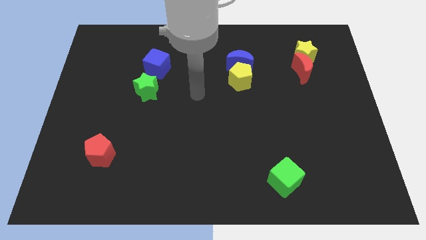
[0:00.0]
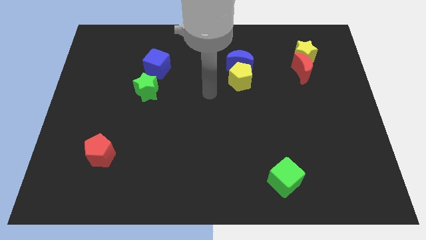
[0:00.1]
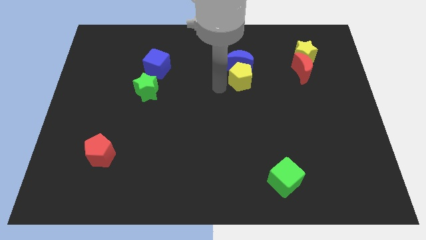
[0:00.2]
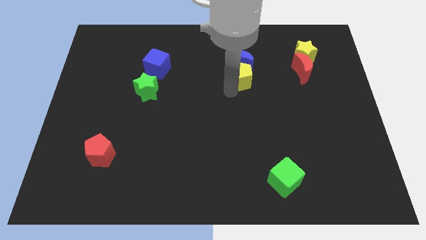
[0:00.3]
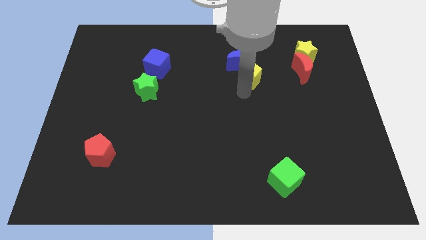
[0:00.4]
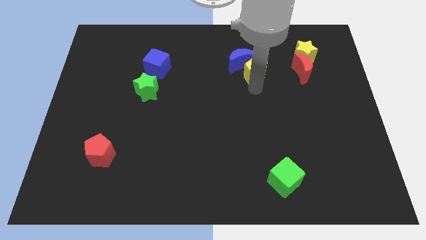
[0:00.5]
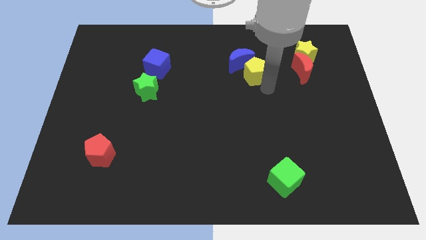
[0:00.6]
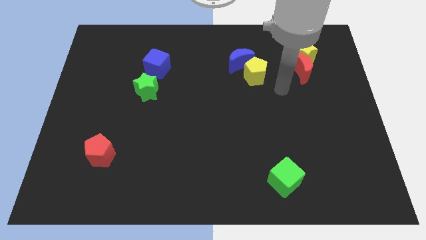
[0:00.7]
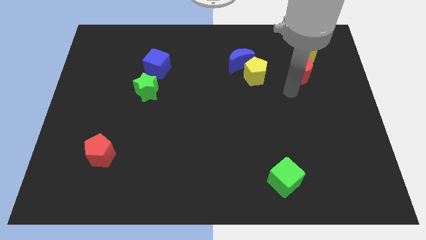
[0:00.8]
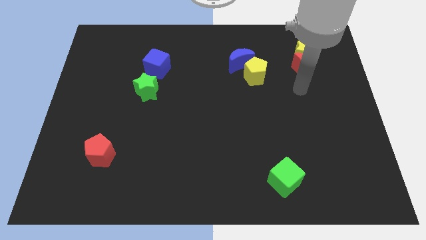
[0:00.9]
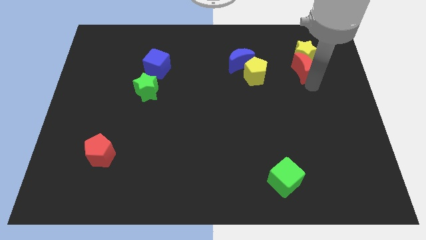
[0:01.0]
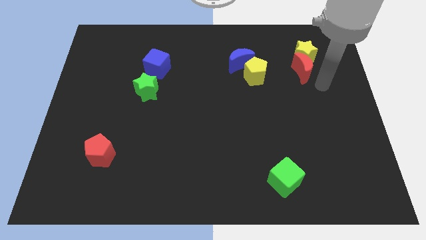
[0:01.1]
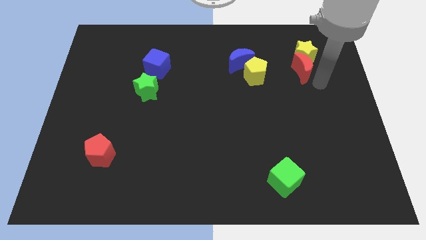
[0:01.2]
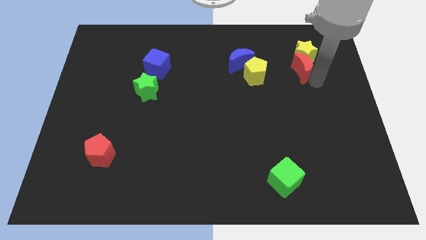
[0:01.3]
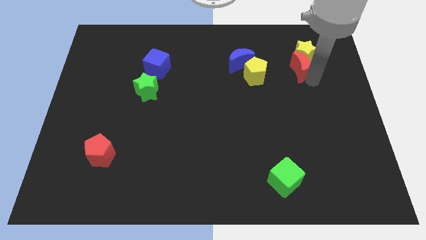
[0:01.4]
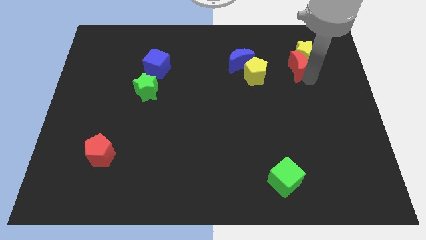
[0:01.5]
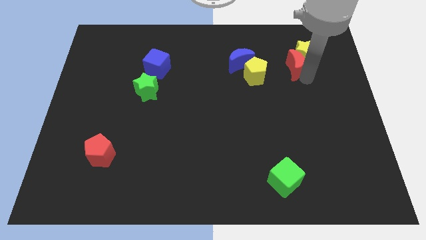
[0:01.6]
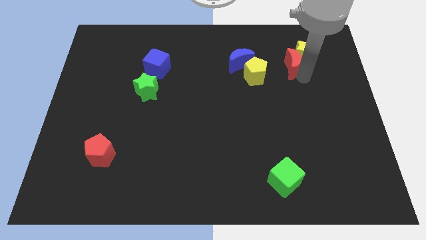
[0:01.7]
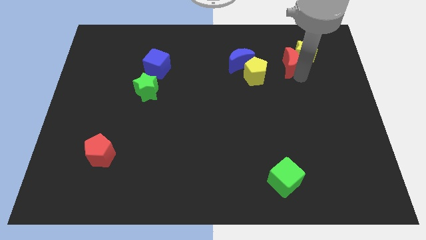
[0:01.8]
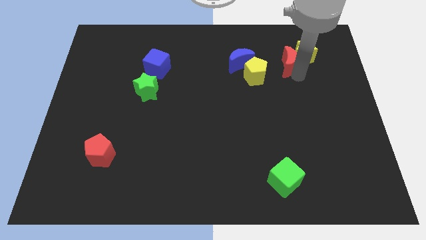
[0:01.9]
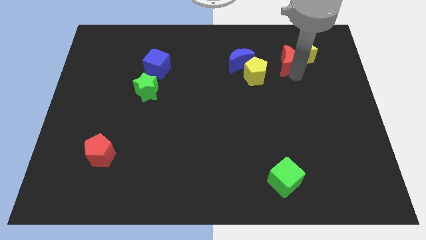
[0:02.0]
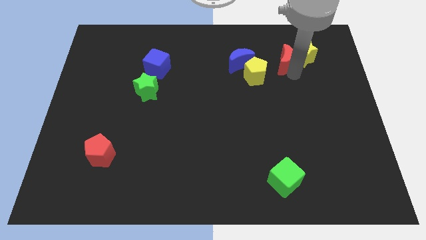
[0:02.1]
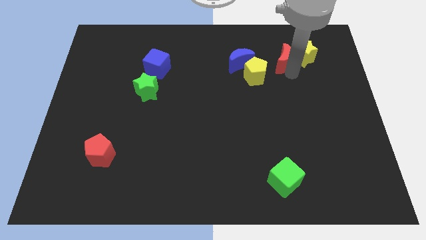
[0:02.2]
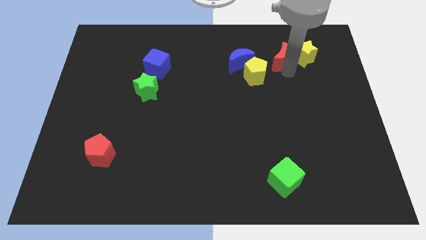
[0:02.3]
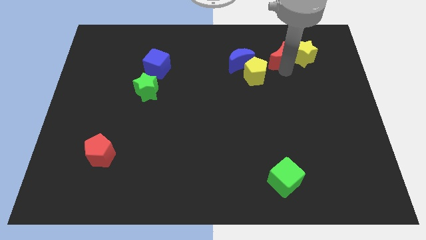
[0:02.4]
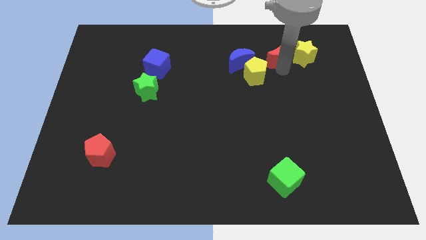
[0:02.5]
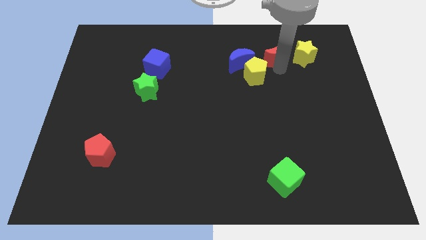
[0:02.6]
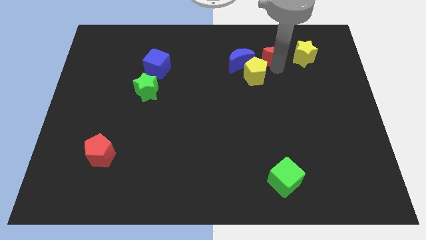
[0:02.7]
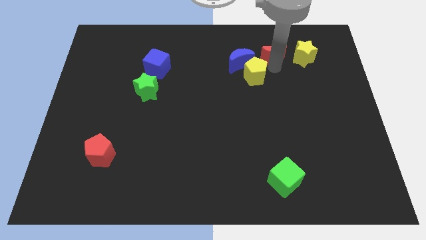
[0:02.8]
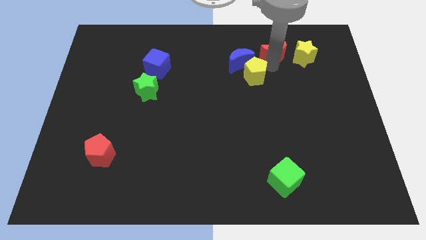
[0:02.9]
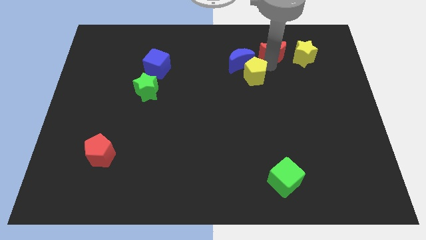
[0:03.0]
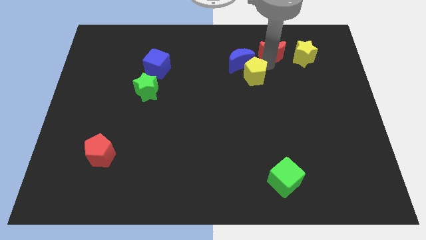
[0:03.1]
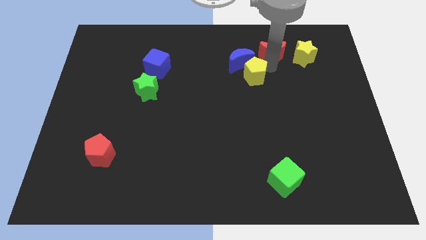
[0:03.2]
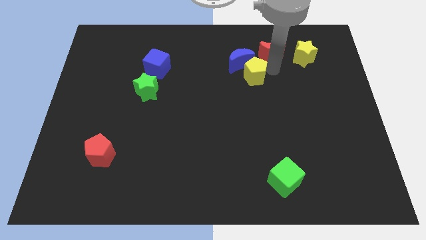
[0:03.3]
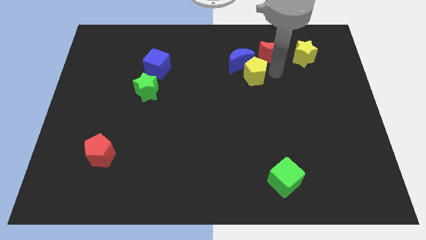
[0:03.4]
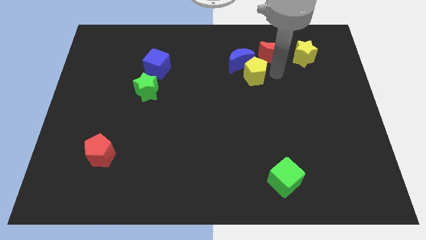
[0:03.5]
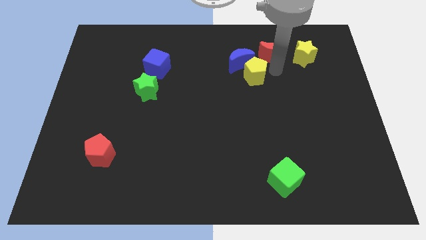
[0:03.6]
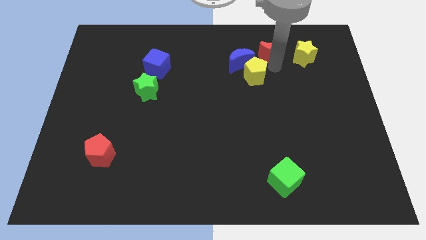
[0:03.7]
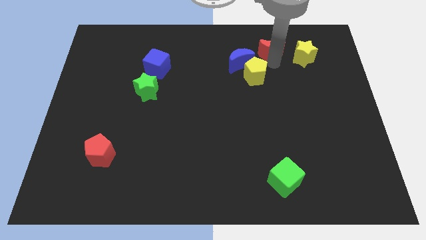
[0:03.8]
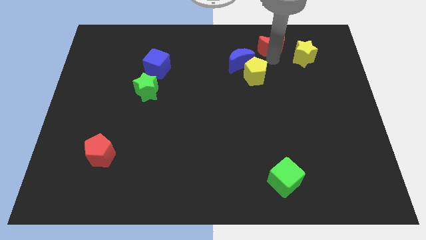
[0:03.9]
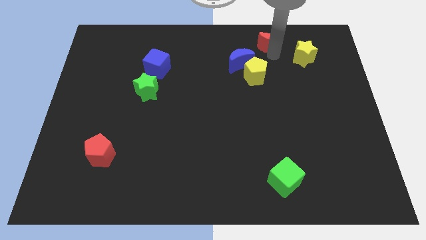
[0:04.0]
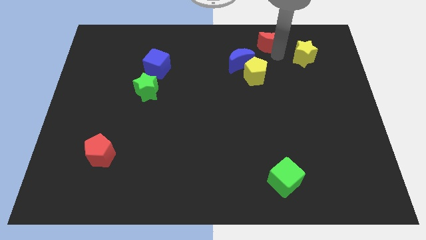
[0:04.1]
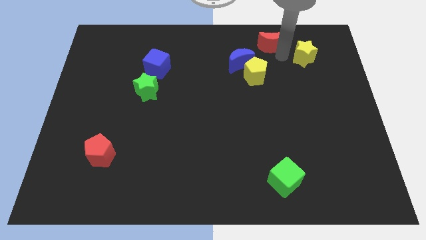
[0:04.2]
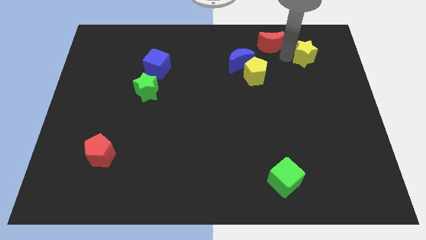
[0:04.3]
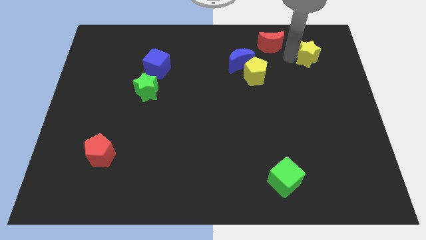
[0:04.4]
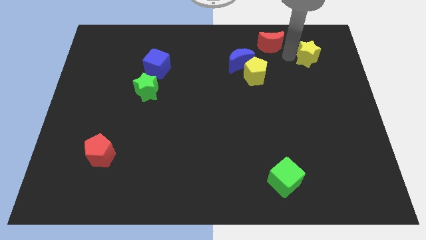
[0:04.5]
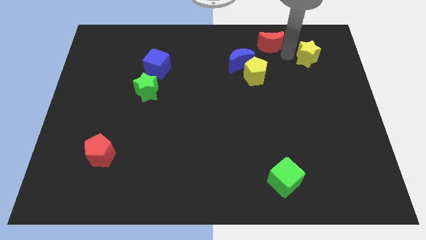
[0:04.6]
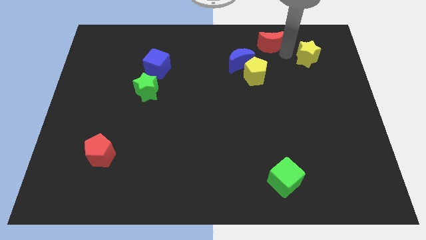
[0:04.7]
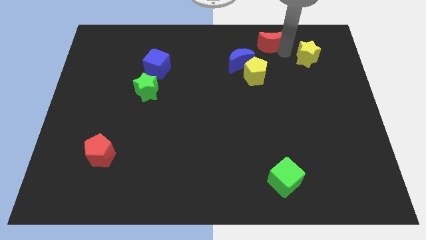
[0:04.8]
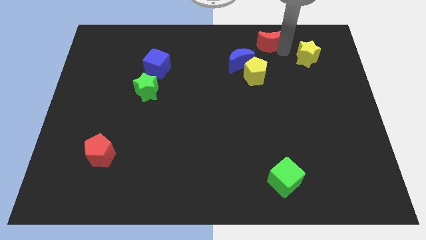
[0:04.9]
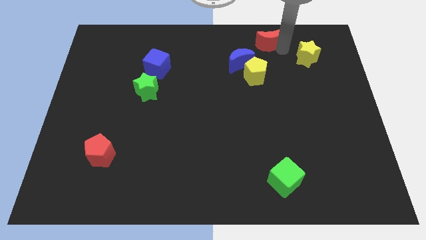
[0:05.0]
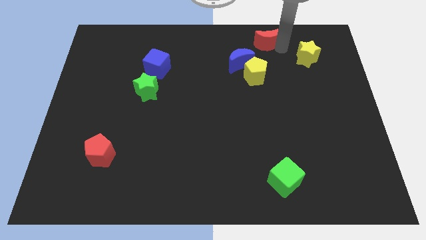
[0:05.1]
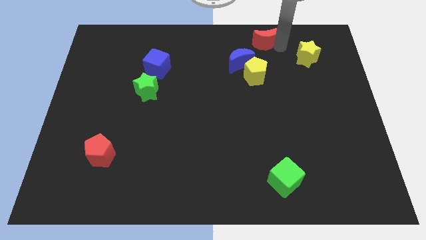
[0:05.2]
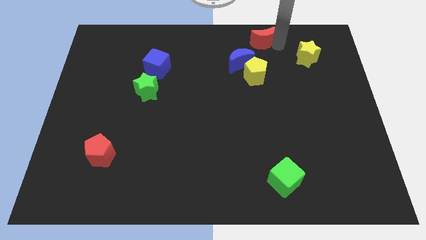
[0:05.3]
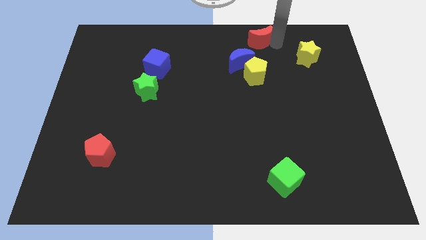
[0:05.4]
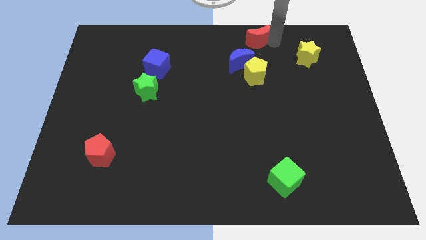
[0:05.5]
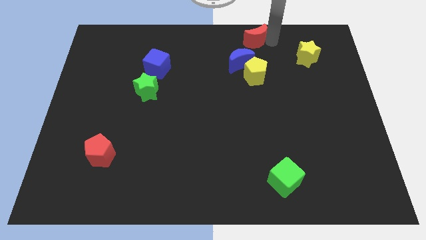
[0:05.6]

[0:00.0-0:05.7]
move the red moon to the top

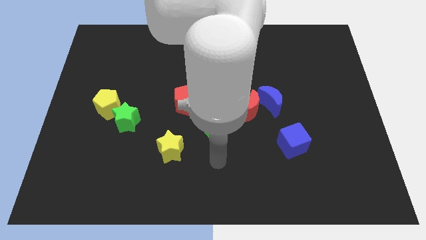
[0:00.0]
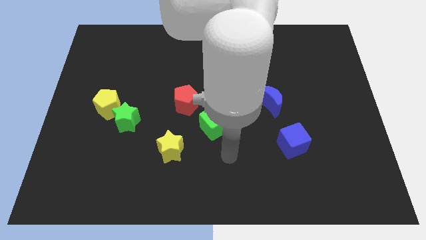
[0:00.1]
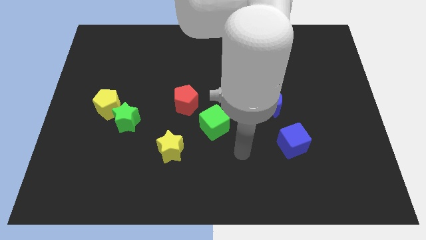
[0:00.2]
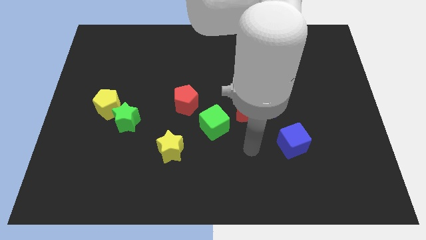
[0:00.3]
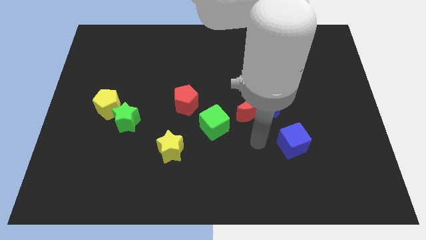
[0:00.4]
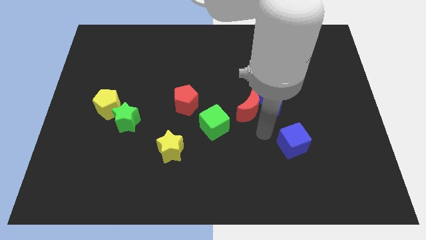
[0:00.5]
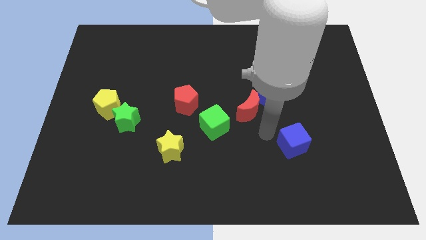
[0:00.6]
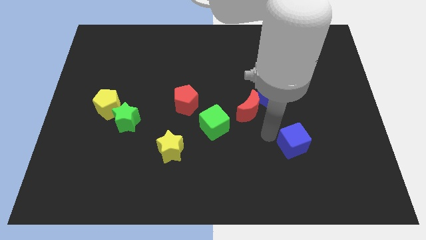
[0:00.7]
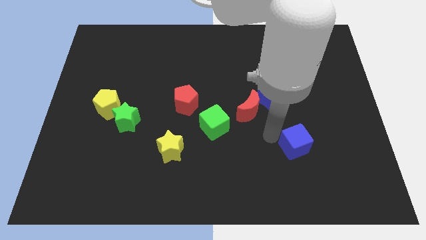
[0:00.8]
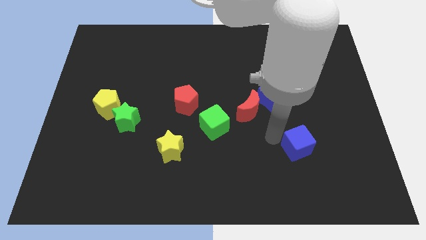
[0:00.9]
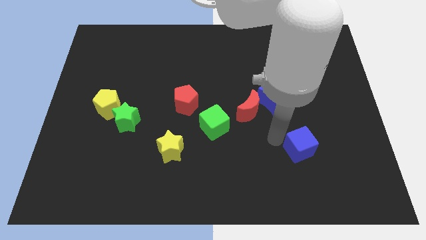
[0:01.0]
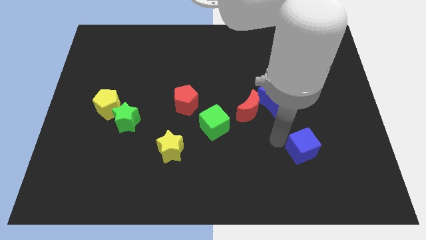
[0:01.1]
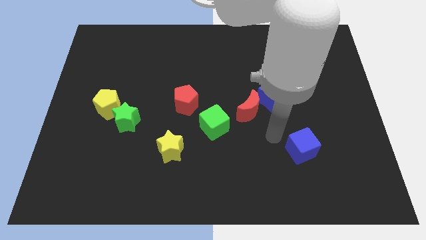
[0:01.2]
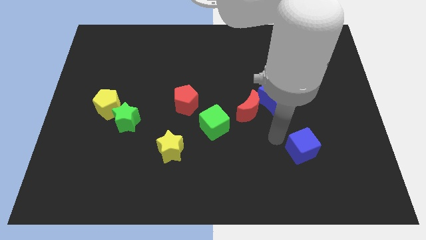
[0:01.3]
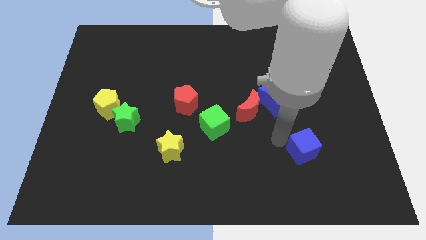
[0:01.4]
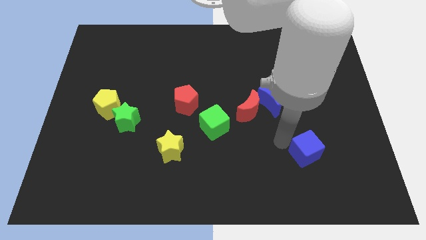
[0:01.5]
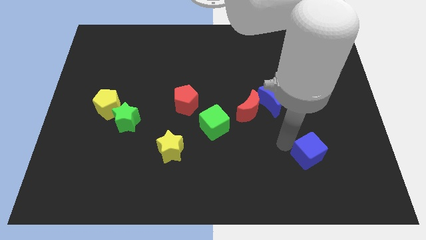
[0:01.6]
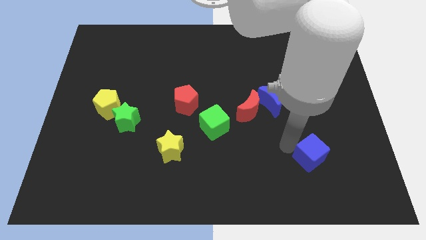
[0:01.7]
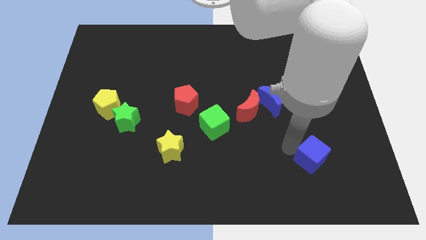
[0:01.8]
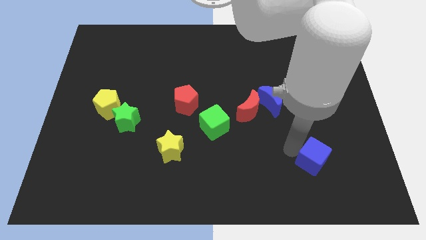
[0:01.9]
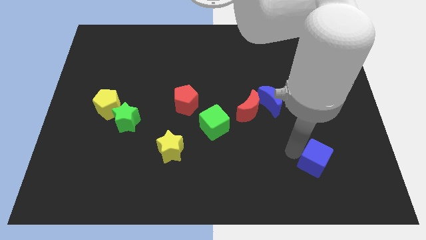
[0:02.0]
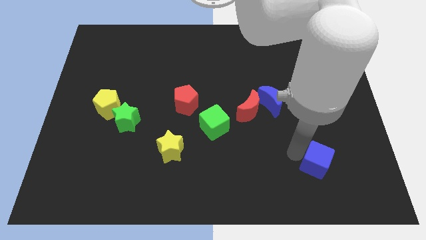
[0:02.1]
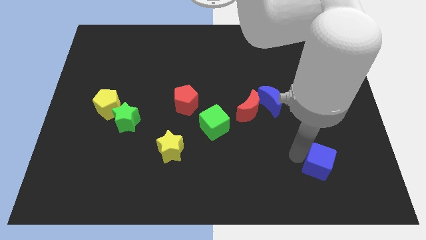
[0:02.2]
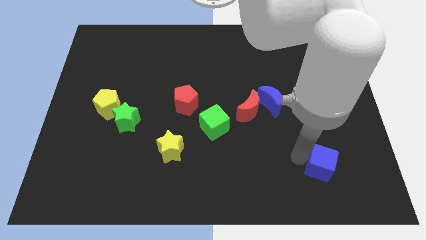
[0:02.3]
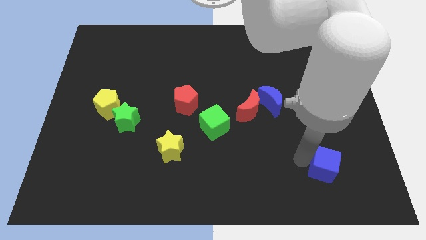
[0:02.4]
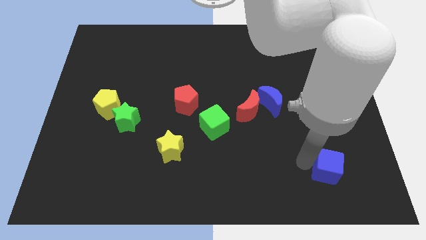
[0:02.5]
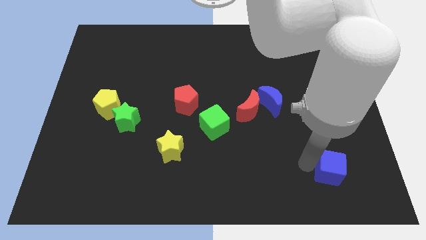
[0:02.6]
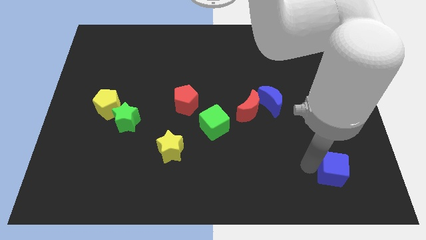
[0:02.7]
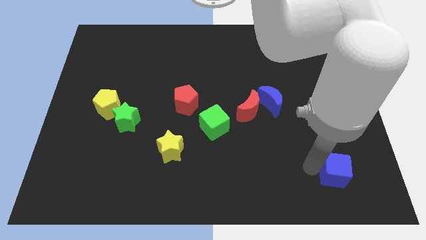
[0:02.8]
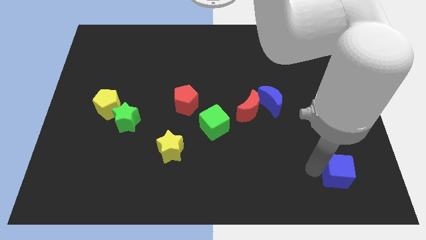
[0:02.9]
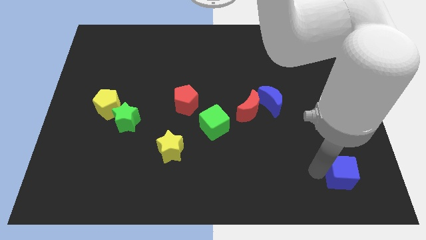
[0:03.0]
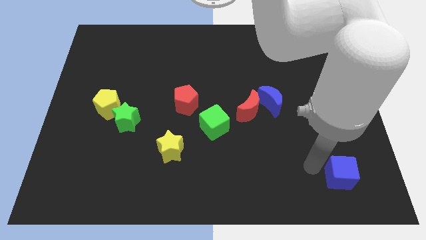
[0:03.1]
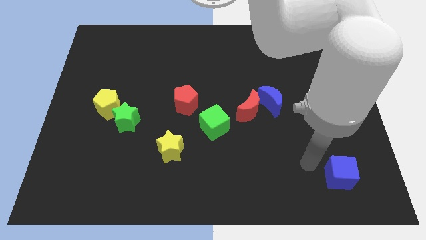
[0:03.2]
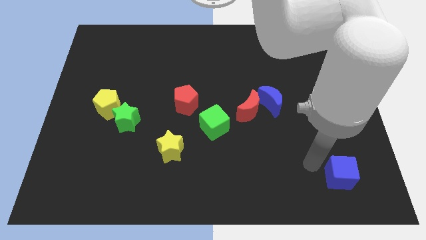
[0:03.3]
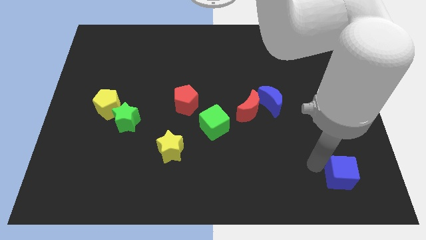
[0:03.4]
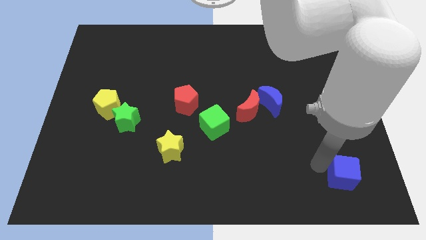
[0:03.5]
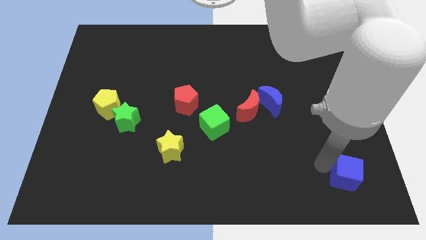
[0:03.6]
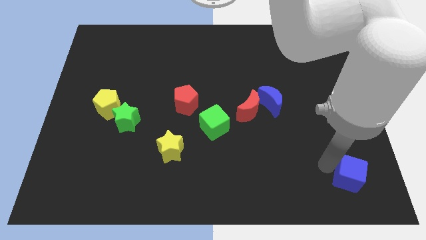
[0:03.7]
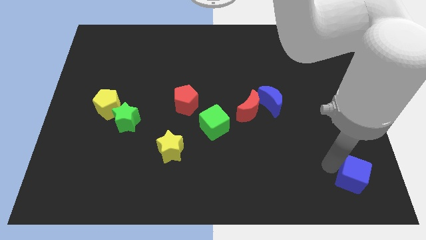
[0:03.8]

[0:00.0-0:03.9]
push the blue cube to the lower right corner
